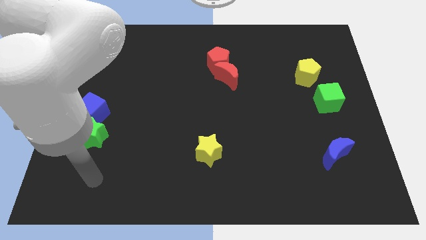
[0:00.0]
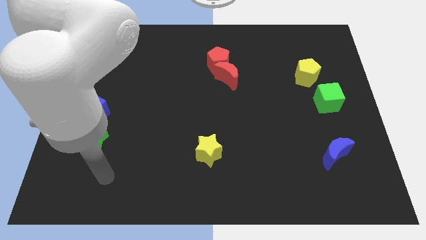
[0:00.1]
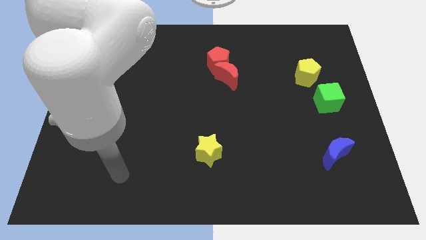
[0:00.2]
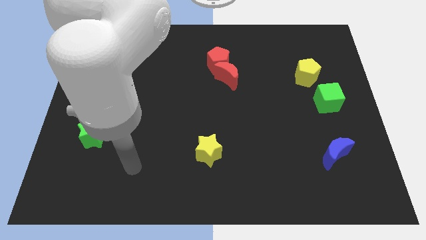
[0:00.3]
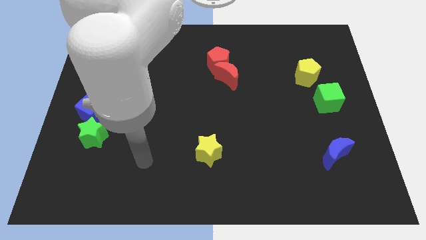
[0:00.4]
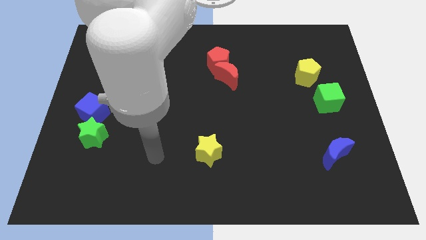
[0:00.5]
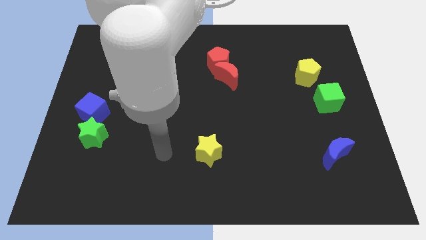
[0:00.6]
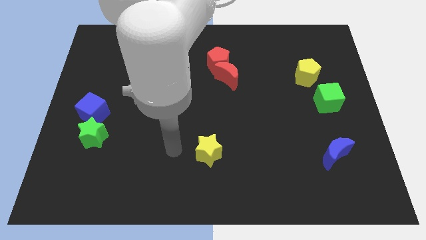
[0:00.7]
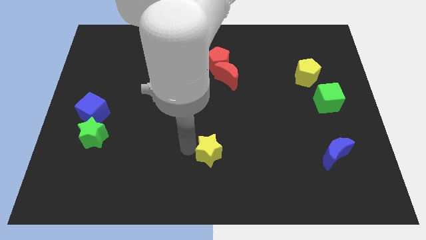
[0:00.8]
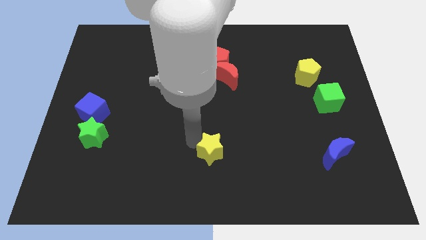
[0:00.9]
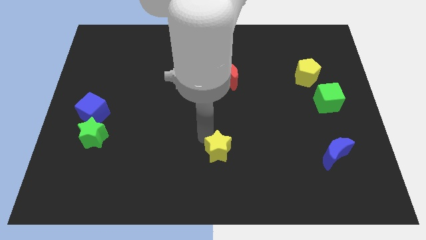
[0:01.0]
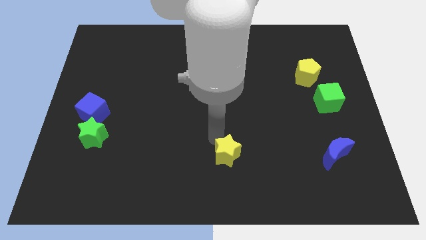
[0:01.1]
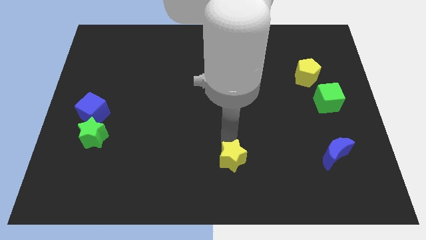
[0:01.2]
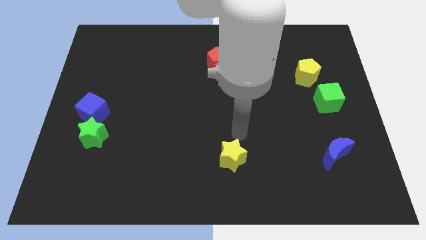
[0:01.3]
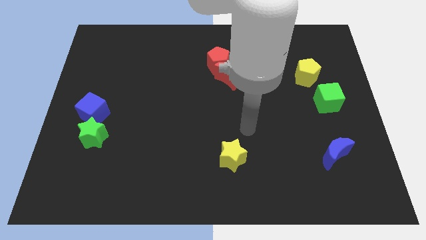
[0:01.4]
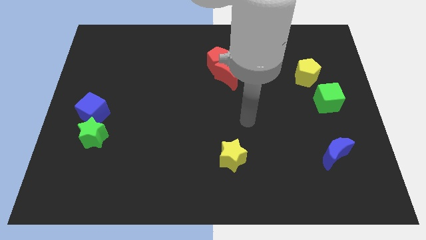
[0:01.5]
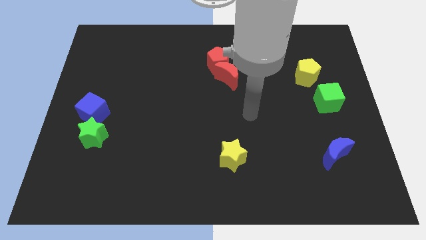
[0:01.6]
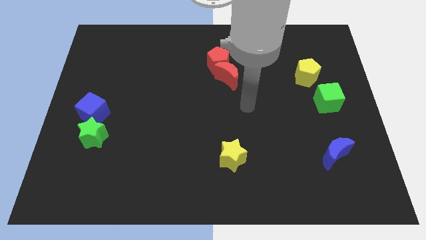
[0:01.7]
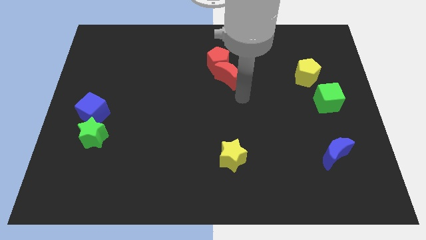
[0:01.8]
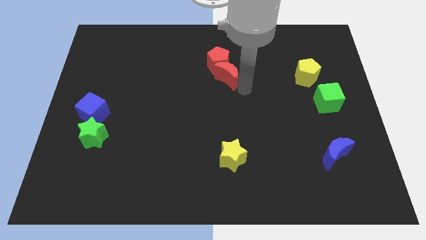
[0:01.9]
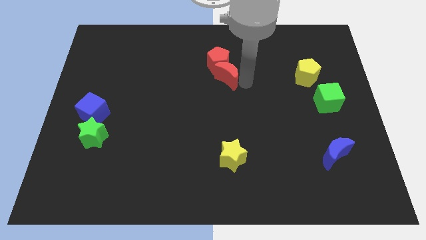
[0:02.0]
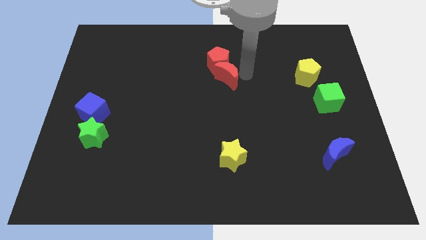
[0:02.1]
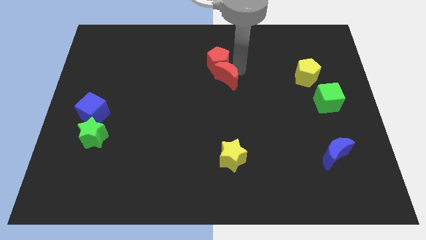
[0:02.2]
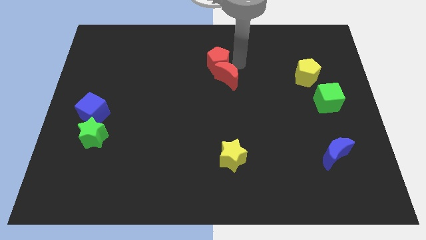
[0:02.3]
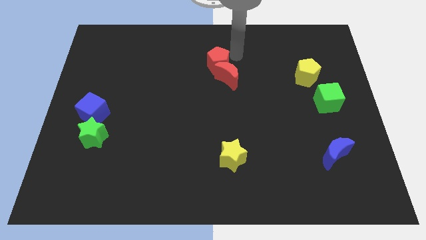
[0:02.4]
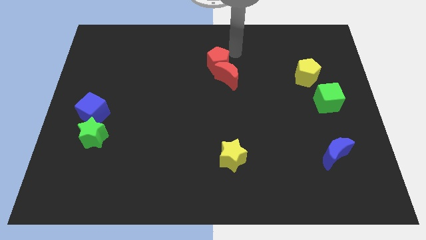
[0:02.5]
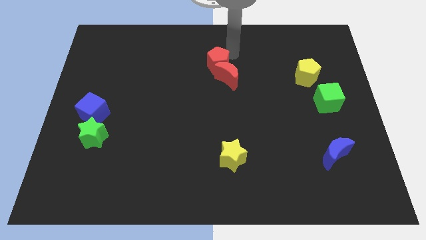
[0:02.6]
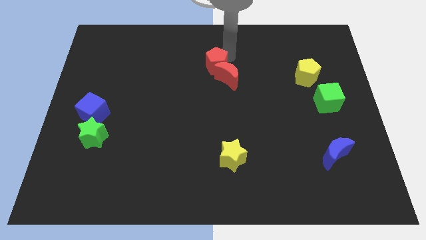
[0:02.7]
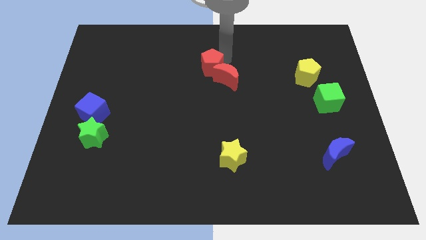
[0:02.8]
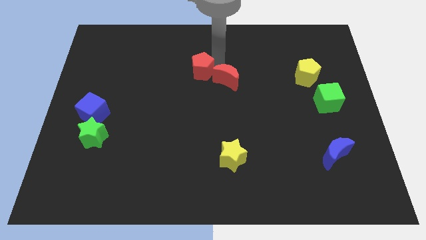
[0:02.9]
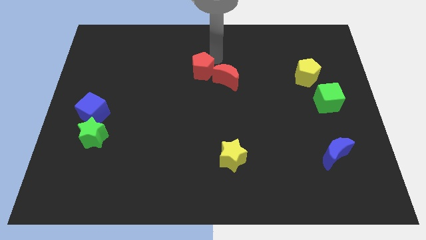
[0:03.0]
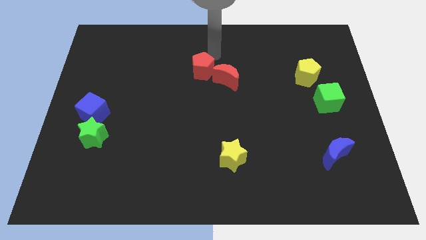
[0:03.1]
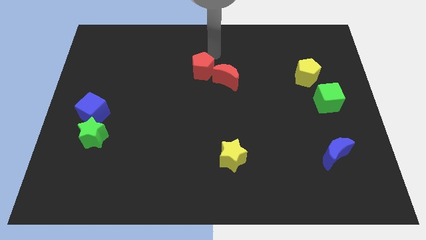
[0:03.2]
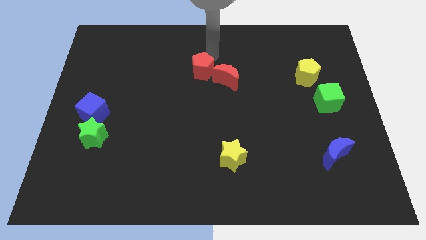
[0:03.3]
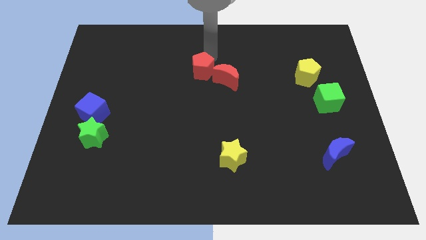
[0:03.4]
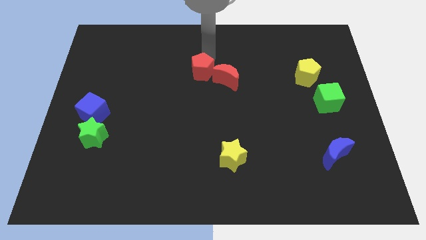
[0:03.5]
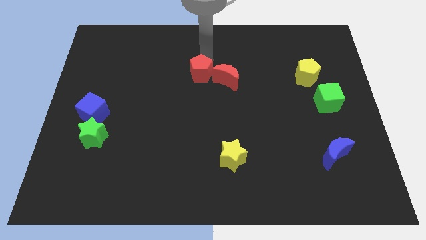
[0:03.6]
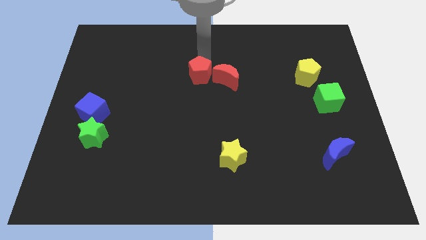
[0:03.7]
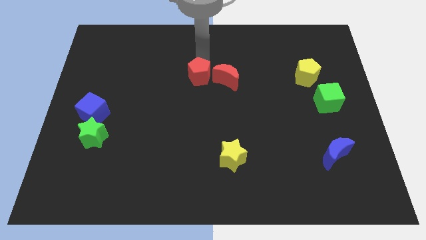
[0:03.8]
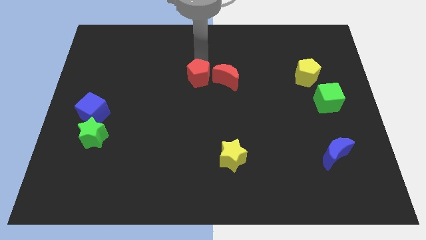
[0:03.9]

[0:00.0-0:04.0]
push the red pentagon down and to the left a little

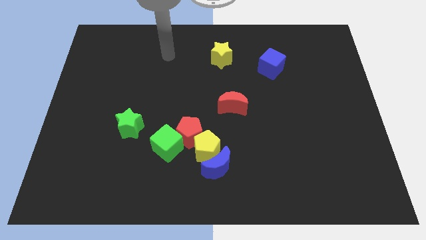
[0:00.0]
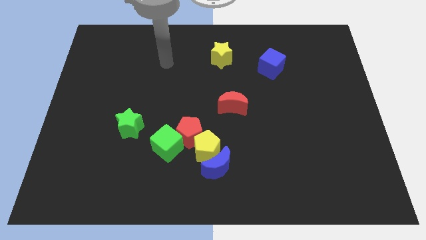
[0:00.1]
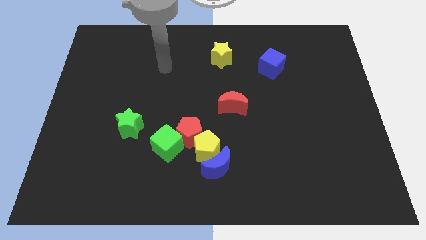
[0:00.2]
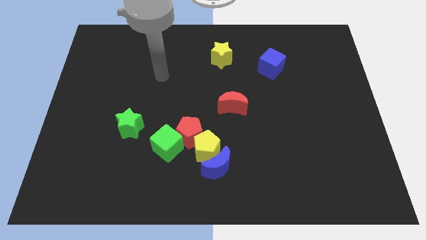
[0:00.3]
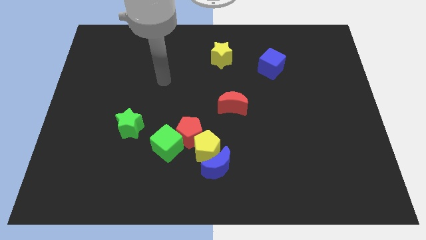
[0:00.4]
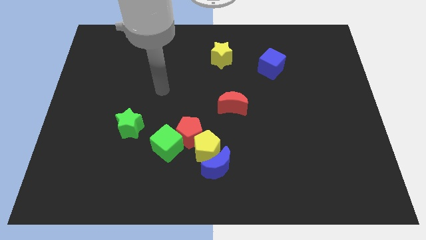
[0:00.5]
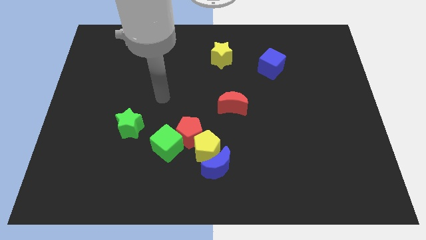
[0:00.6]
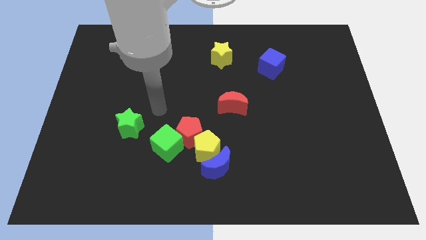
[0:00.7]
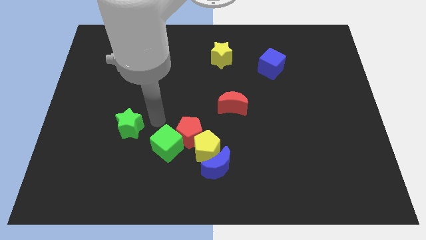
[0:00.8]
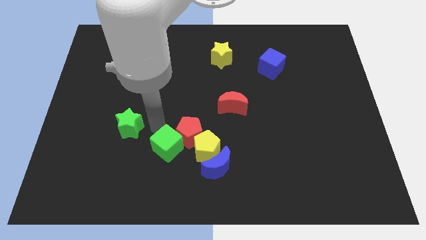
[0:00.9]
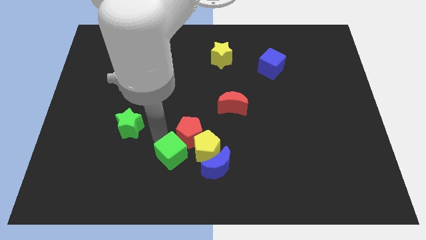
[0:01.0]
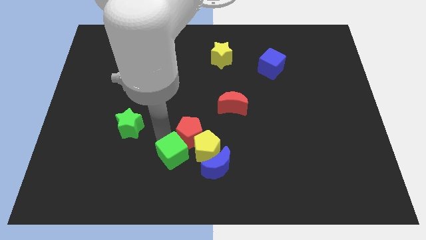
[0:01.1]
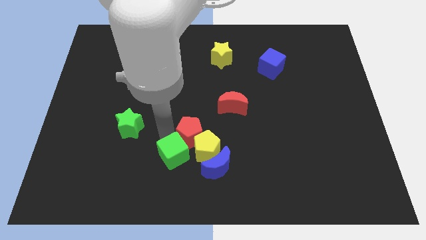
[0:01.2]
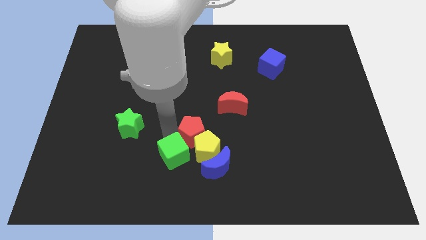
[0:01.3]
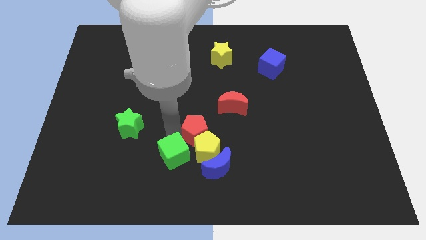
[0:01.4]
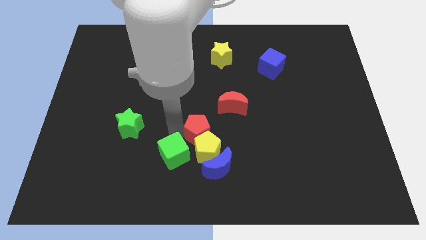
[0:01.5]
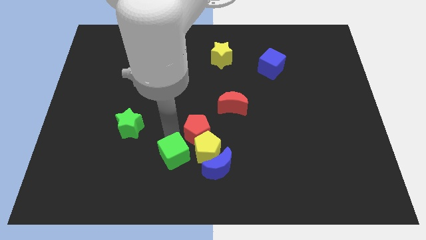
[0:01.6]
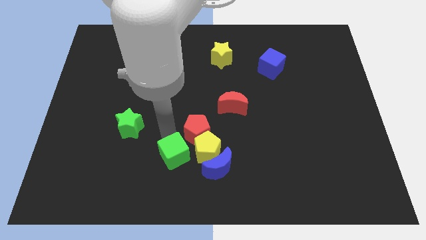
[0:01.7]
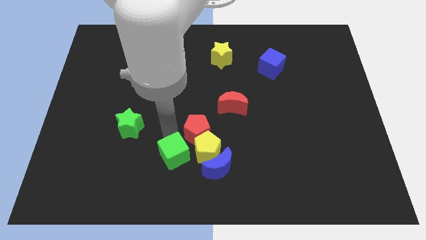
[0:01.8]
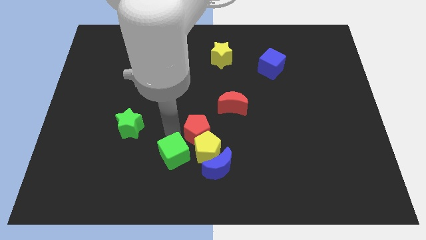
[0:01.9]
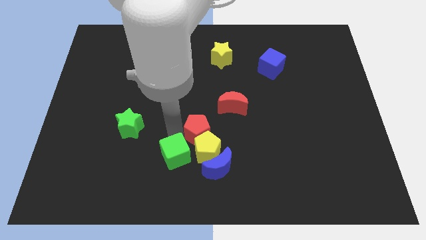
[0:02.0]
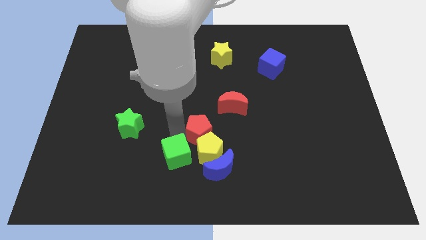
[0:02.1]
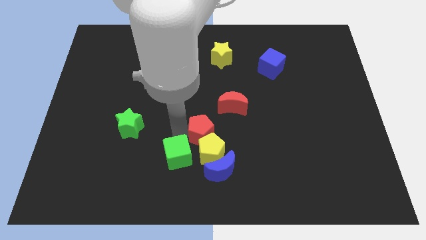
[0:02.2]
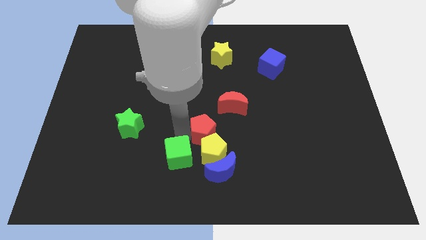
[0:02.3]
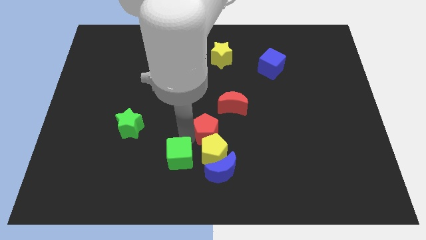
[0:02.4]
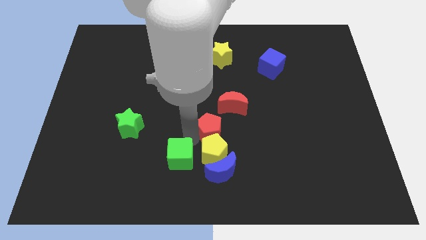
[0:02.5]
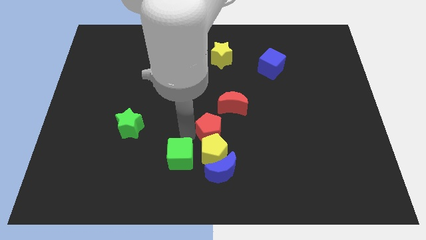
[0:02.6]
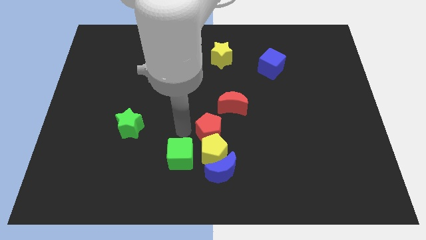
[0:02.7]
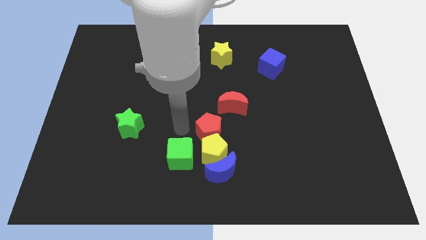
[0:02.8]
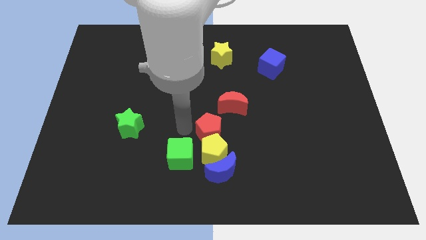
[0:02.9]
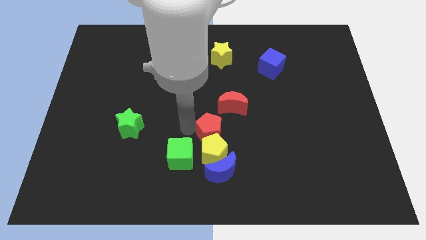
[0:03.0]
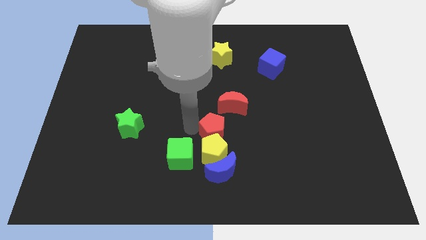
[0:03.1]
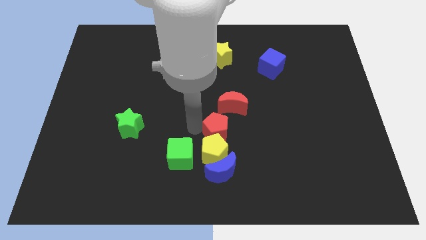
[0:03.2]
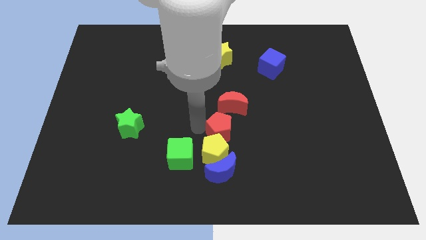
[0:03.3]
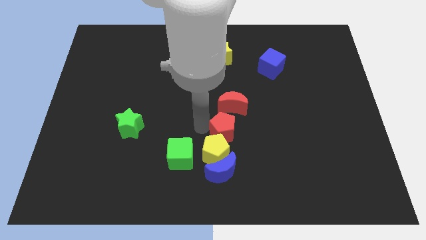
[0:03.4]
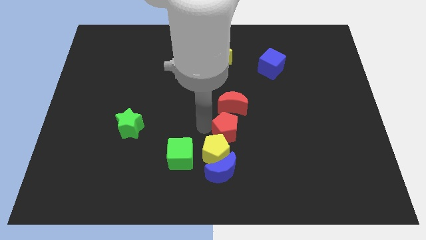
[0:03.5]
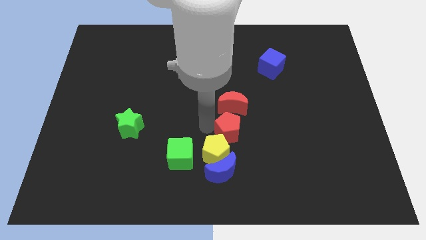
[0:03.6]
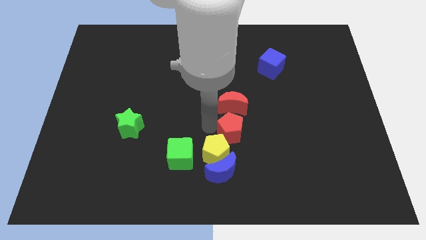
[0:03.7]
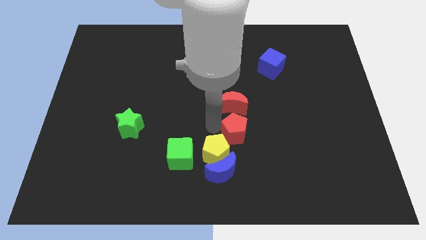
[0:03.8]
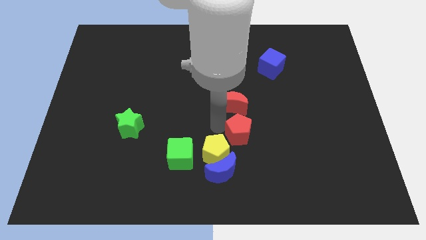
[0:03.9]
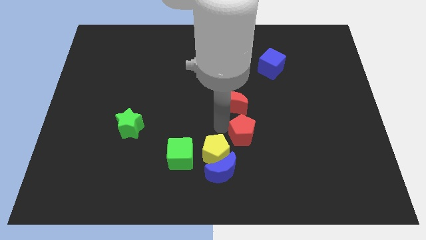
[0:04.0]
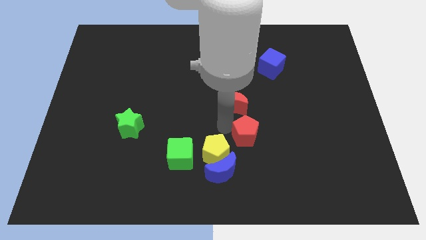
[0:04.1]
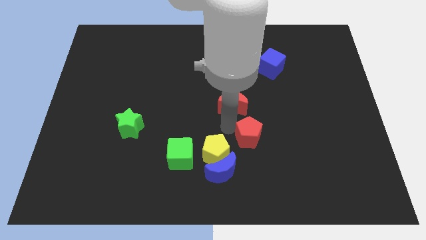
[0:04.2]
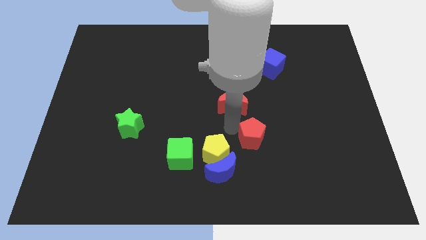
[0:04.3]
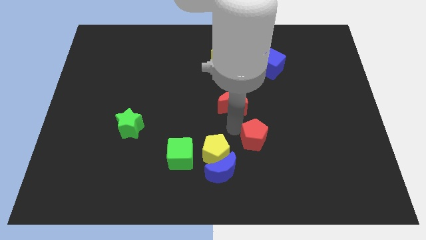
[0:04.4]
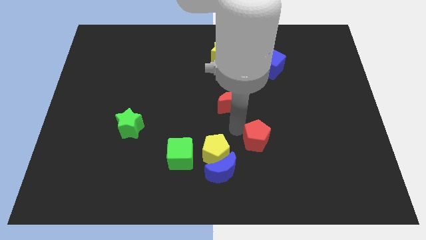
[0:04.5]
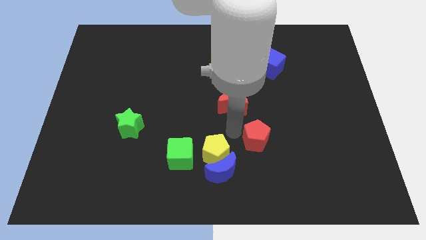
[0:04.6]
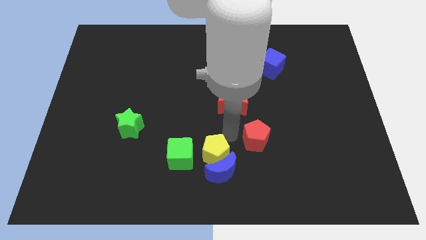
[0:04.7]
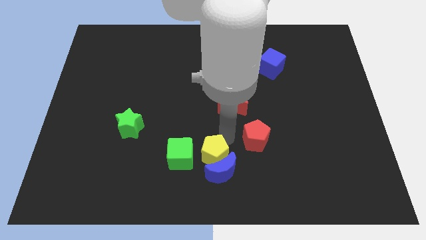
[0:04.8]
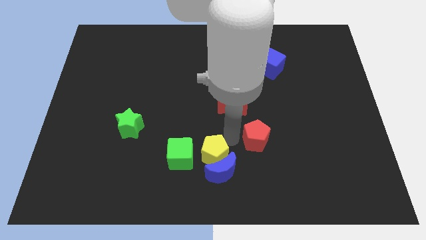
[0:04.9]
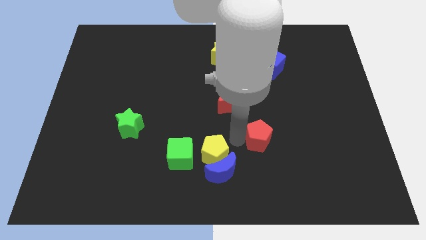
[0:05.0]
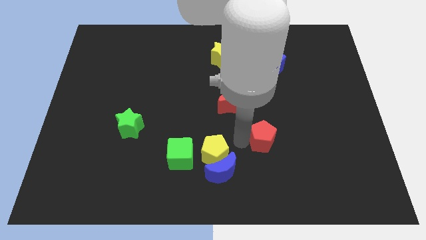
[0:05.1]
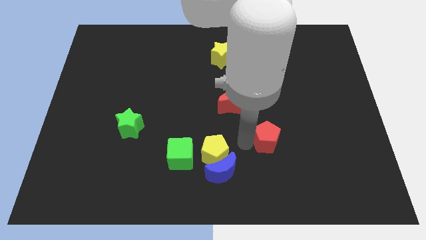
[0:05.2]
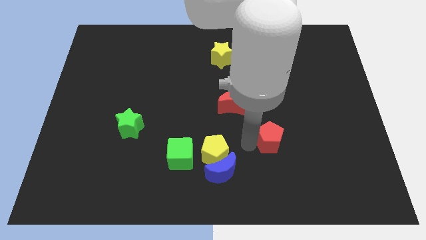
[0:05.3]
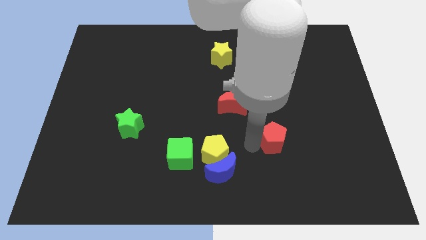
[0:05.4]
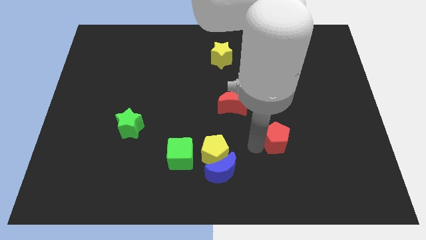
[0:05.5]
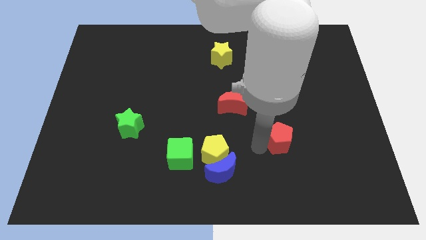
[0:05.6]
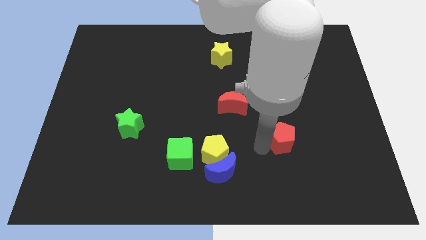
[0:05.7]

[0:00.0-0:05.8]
slide the red pentagon to the right
